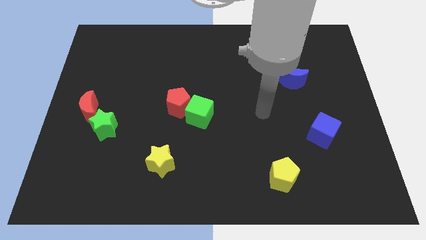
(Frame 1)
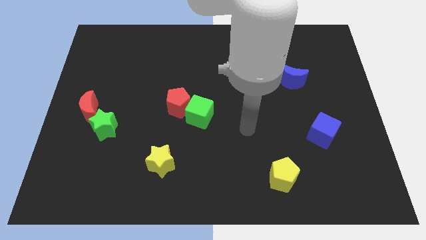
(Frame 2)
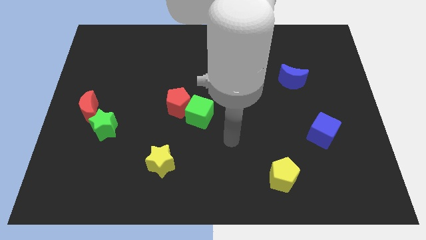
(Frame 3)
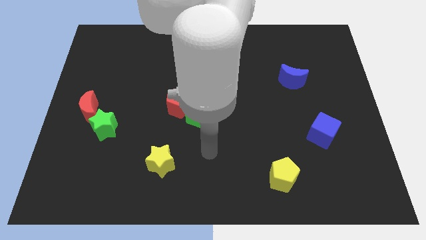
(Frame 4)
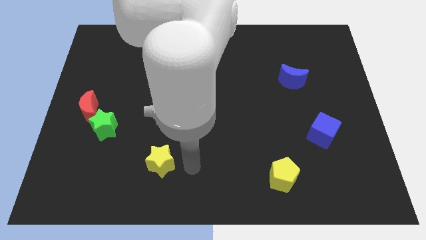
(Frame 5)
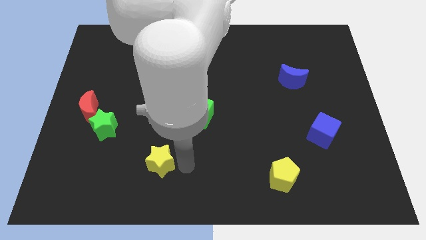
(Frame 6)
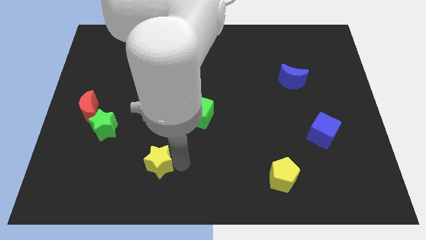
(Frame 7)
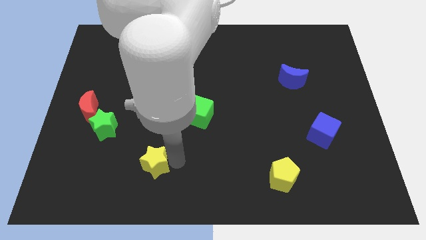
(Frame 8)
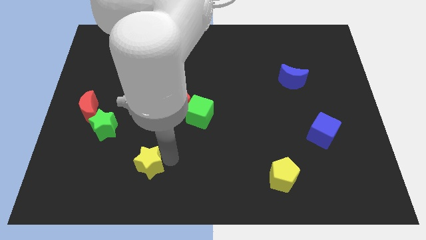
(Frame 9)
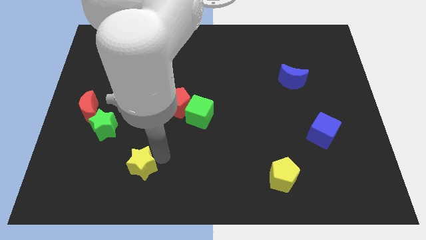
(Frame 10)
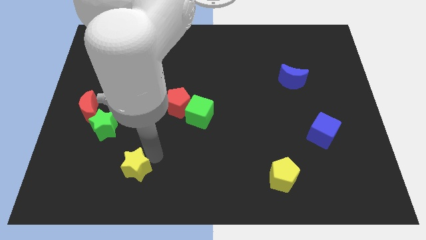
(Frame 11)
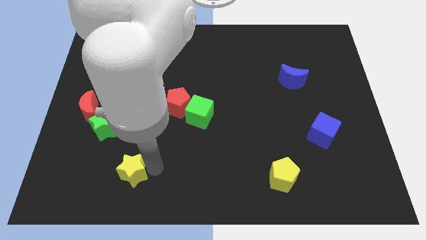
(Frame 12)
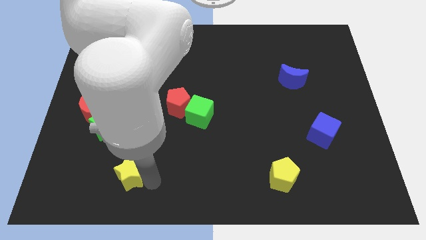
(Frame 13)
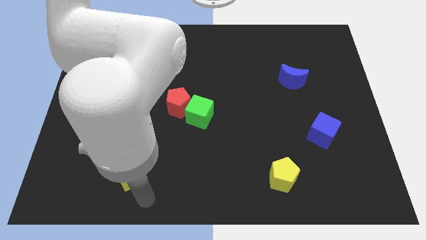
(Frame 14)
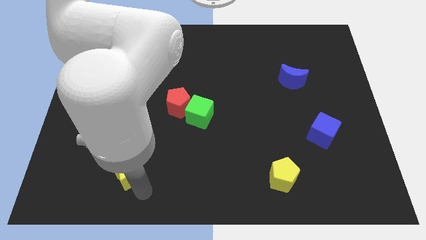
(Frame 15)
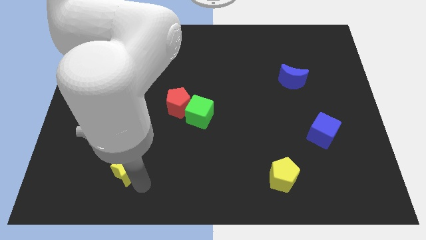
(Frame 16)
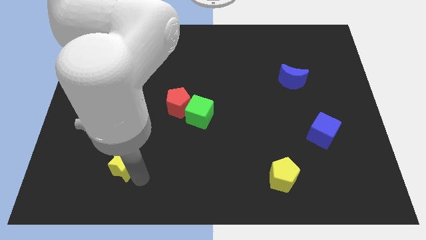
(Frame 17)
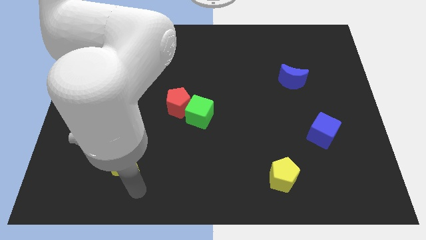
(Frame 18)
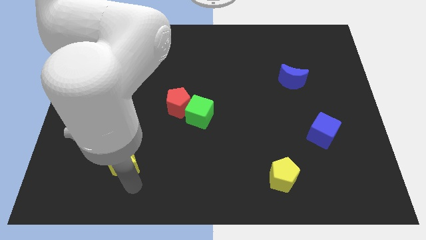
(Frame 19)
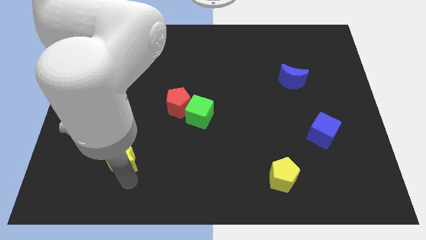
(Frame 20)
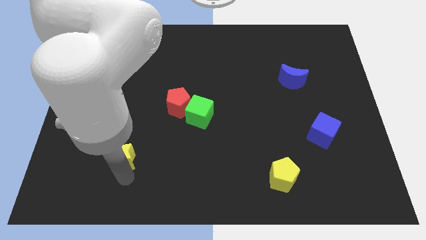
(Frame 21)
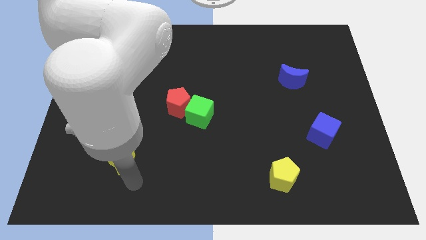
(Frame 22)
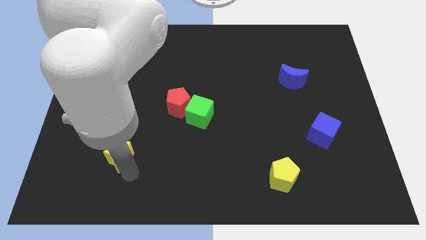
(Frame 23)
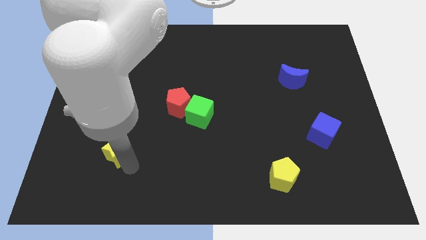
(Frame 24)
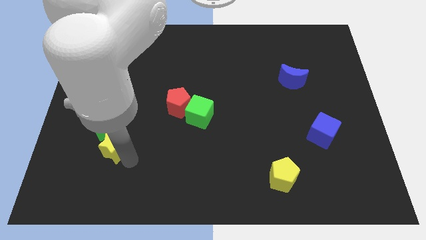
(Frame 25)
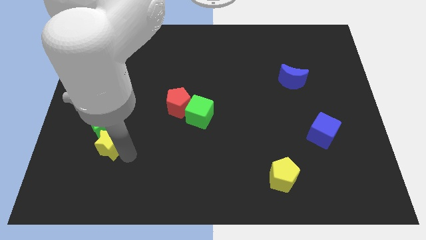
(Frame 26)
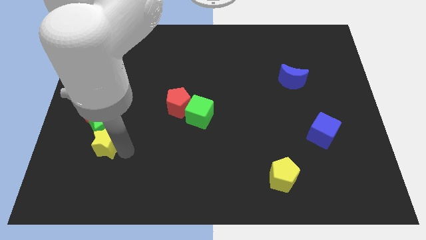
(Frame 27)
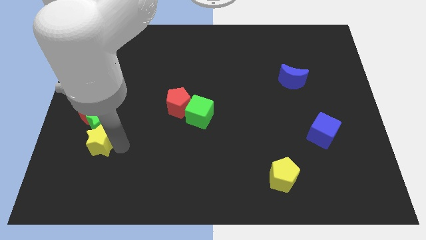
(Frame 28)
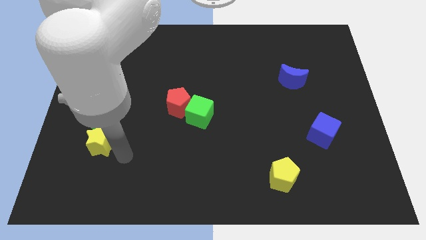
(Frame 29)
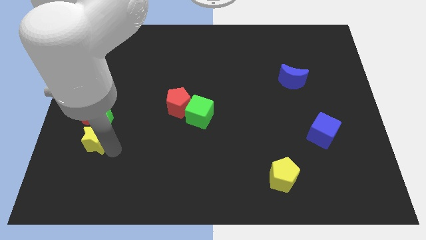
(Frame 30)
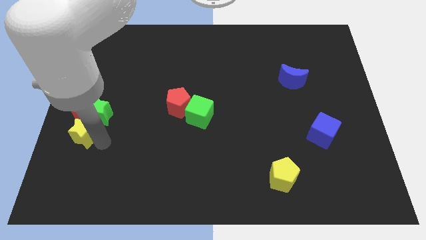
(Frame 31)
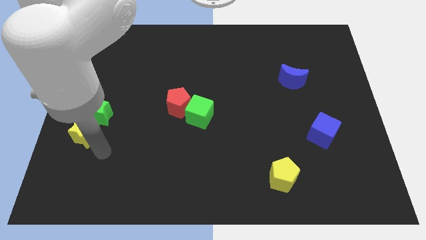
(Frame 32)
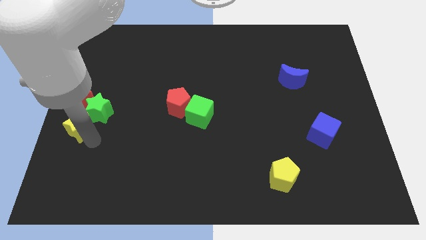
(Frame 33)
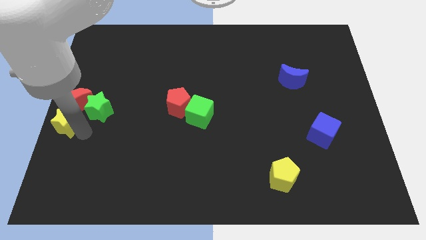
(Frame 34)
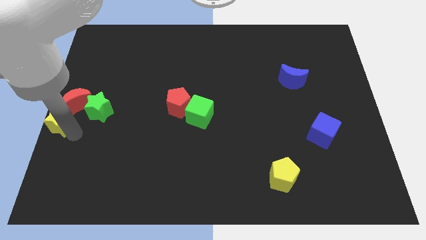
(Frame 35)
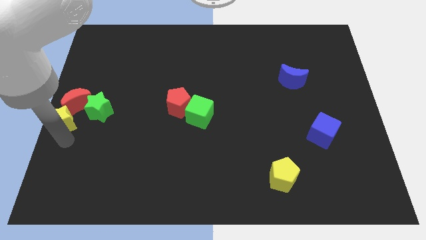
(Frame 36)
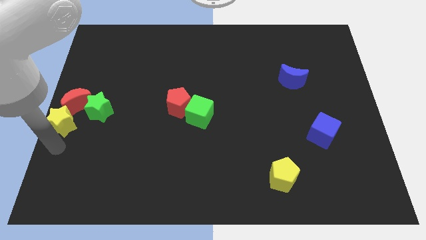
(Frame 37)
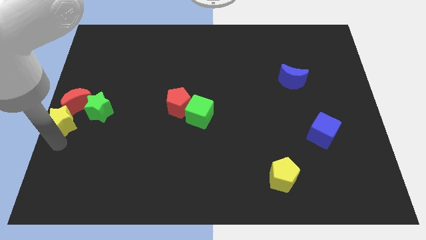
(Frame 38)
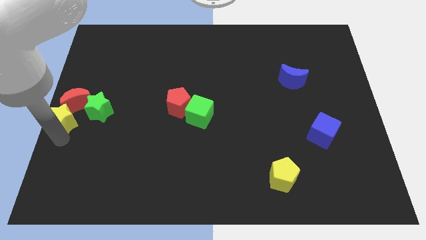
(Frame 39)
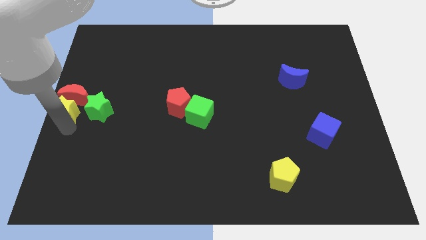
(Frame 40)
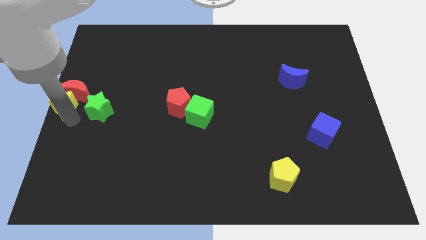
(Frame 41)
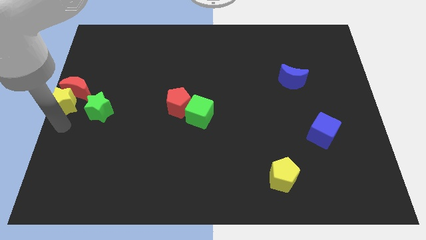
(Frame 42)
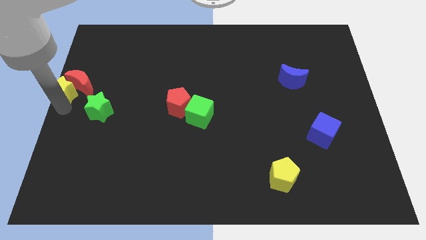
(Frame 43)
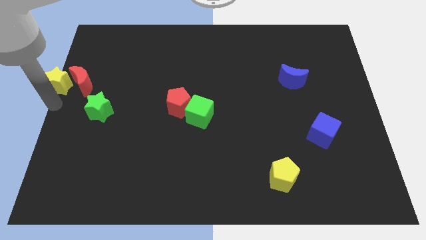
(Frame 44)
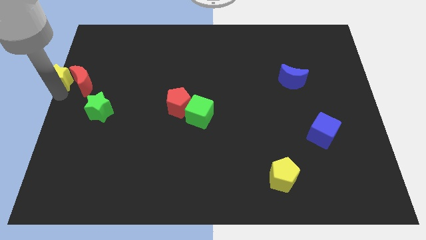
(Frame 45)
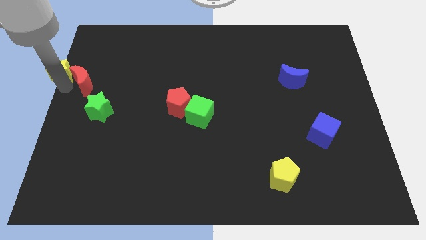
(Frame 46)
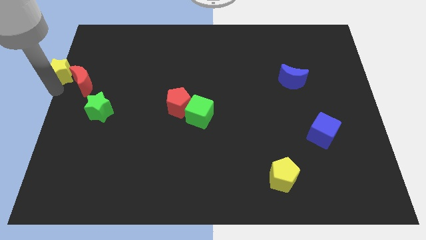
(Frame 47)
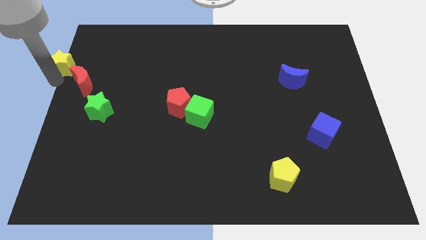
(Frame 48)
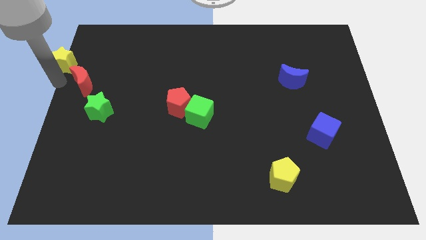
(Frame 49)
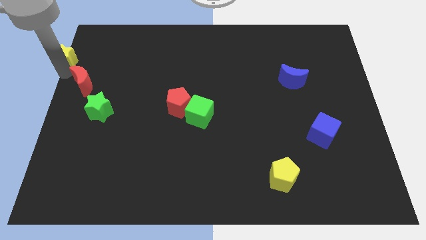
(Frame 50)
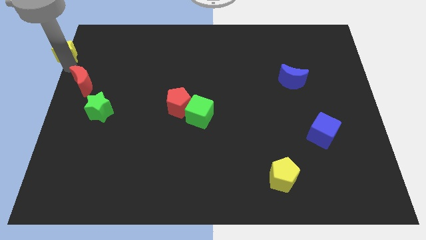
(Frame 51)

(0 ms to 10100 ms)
move the yellow star to the top left of the board

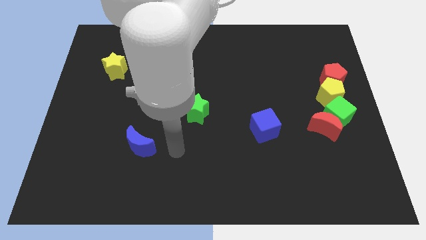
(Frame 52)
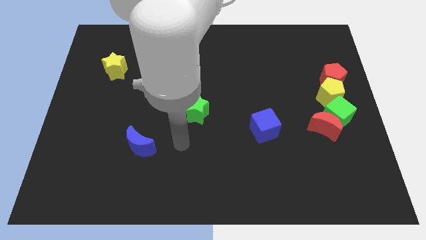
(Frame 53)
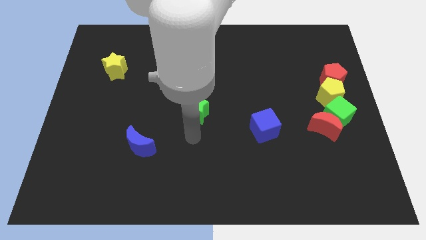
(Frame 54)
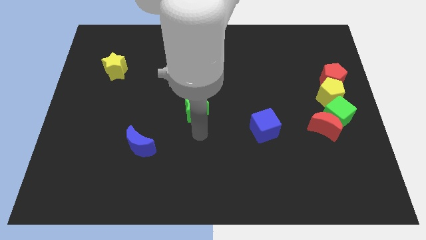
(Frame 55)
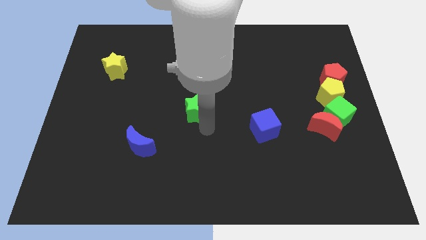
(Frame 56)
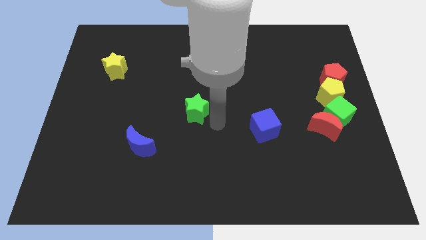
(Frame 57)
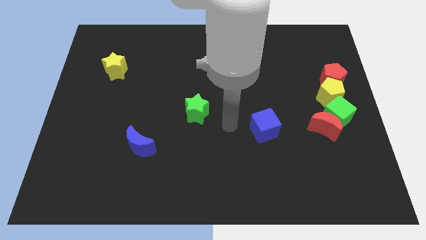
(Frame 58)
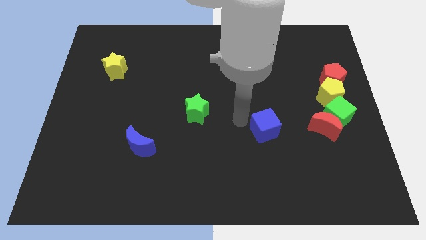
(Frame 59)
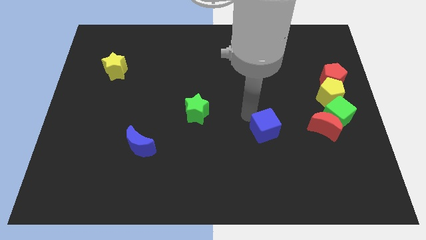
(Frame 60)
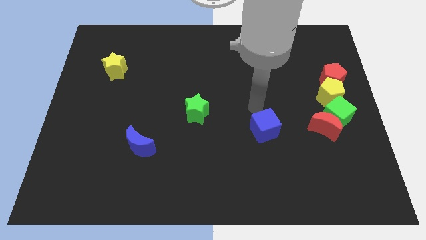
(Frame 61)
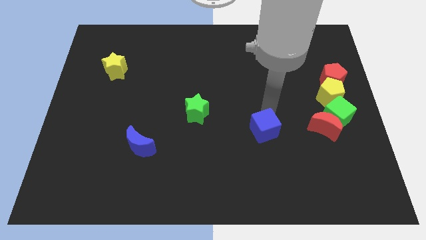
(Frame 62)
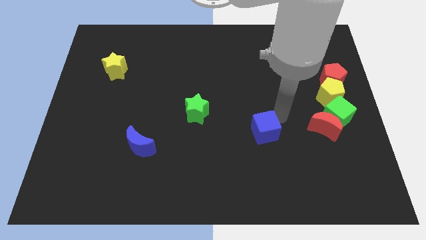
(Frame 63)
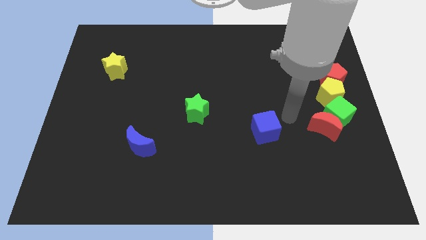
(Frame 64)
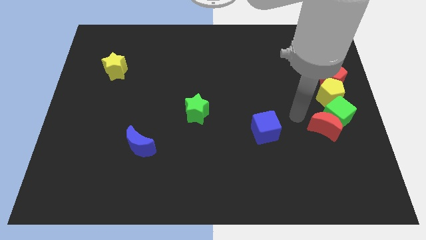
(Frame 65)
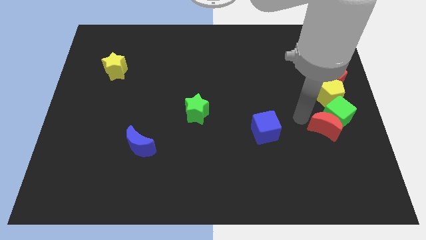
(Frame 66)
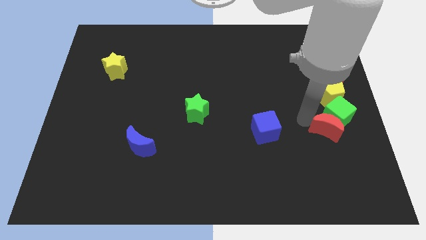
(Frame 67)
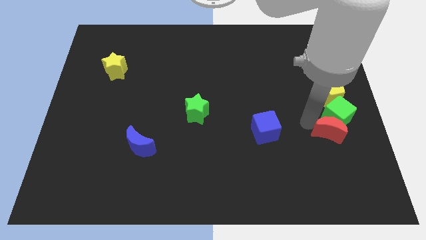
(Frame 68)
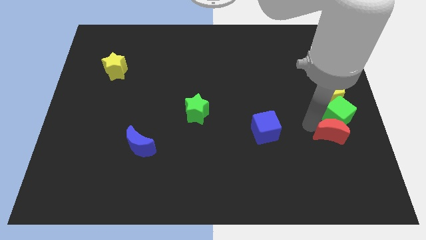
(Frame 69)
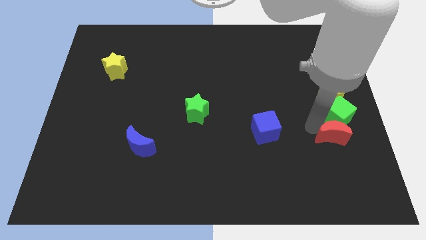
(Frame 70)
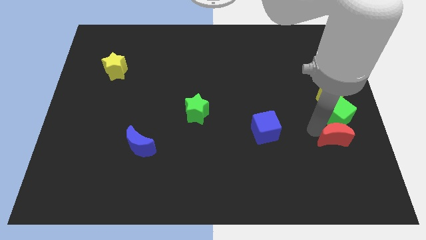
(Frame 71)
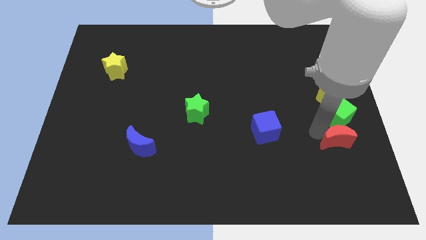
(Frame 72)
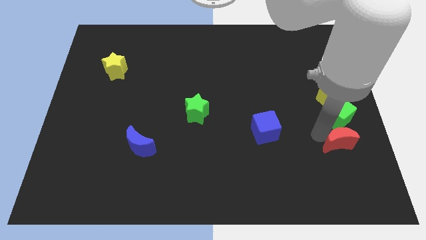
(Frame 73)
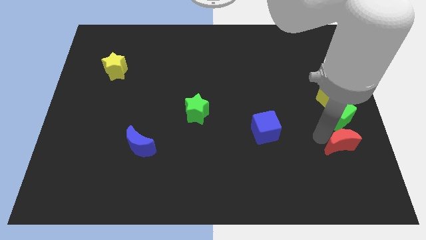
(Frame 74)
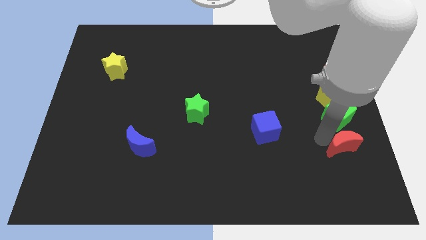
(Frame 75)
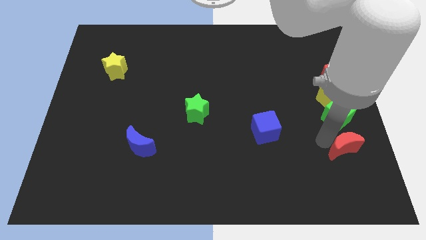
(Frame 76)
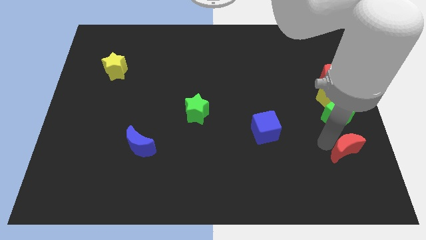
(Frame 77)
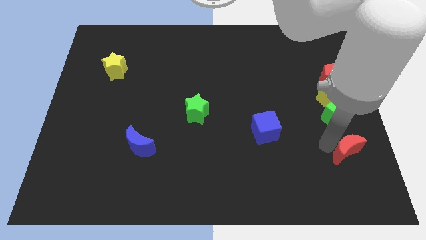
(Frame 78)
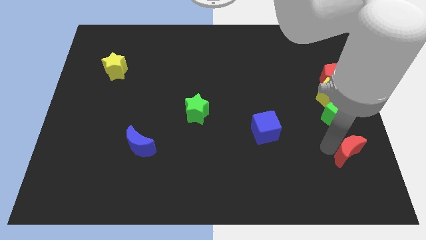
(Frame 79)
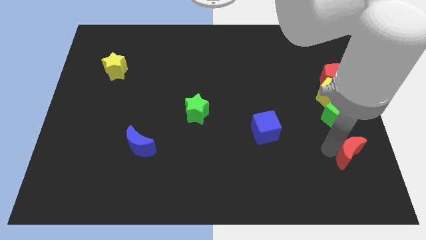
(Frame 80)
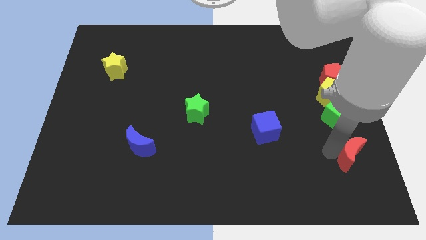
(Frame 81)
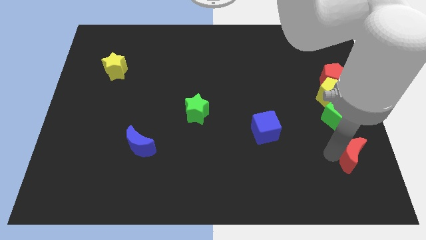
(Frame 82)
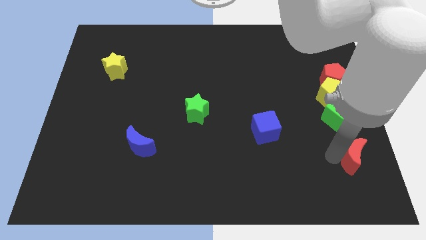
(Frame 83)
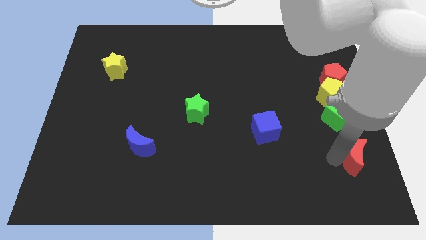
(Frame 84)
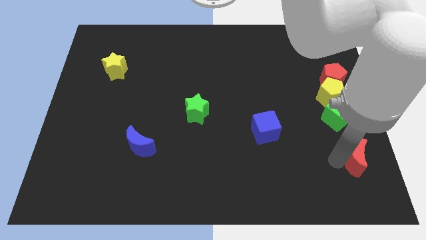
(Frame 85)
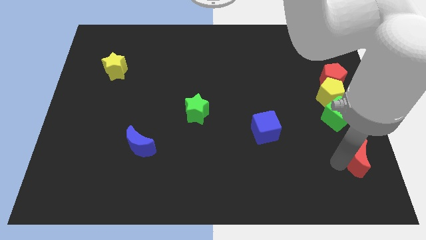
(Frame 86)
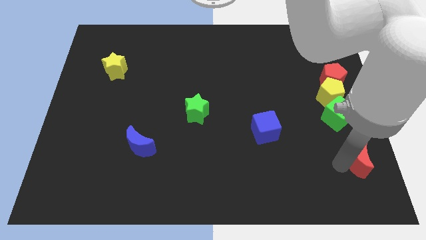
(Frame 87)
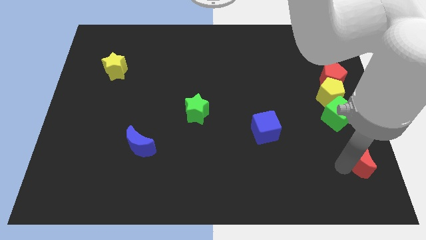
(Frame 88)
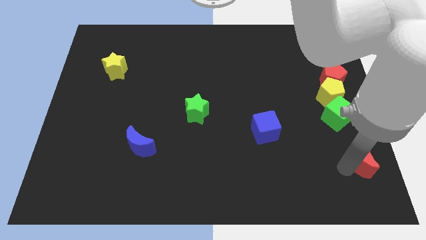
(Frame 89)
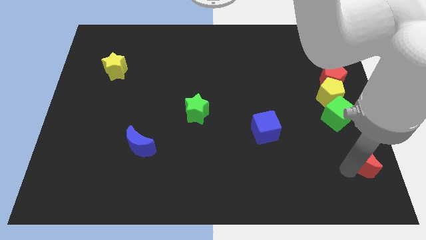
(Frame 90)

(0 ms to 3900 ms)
move the red moon to the bottom right corner
